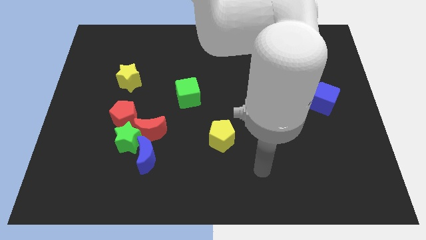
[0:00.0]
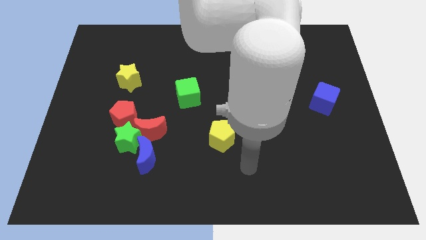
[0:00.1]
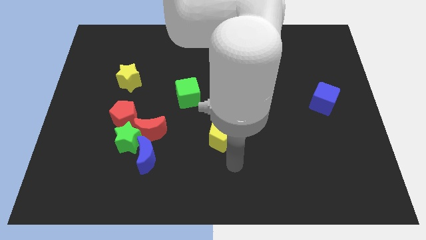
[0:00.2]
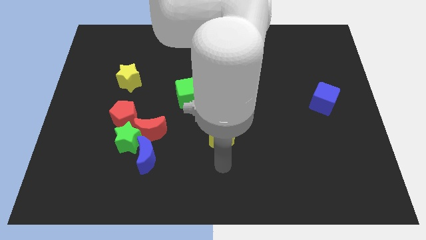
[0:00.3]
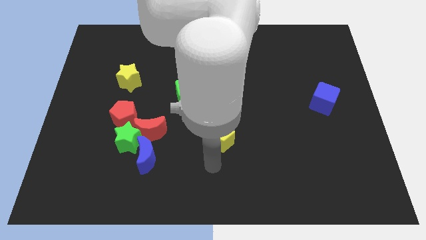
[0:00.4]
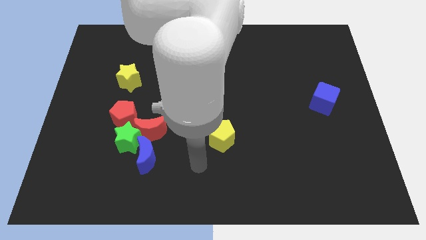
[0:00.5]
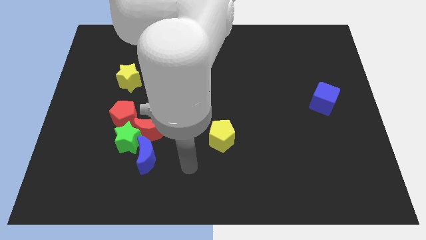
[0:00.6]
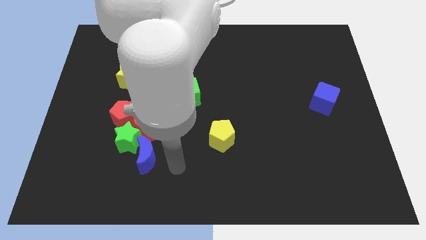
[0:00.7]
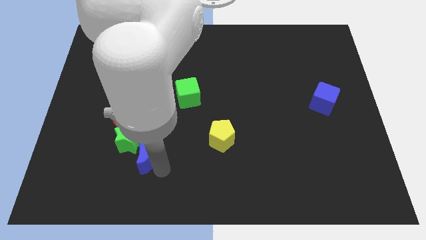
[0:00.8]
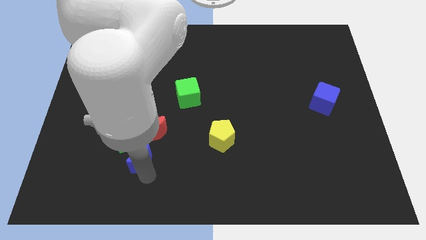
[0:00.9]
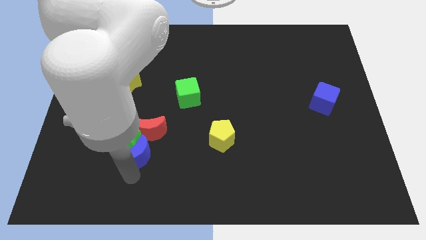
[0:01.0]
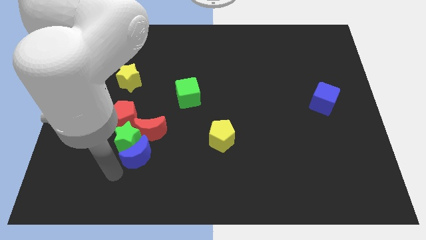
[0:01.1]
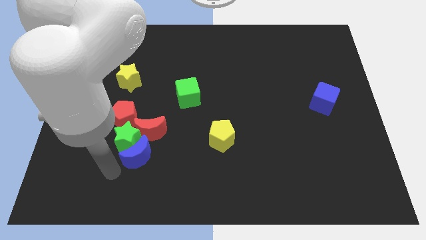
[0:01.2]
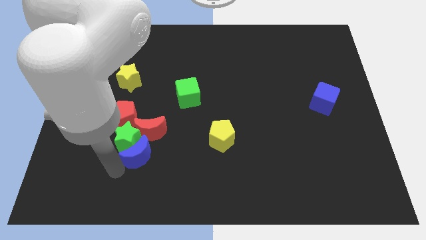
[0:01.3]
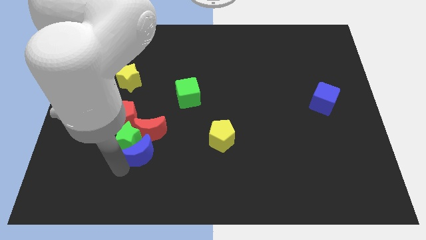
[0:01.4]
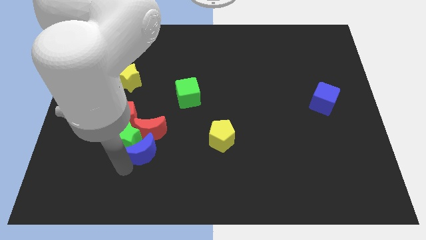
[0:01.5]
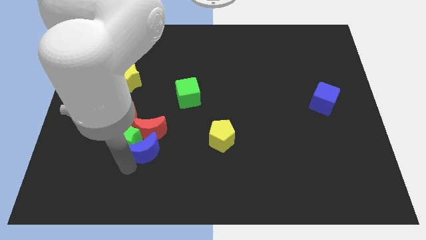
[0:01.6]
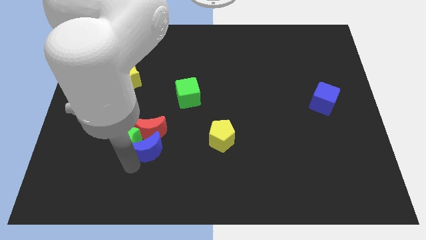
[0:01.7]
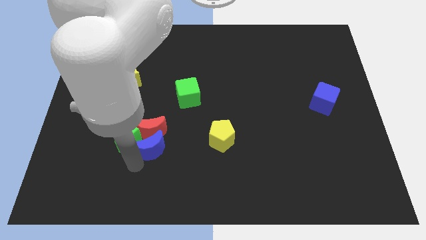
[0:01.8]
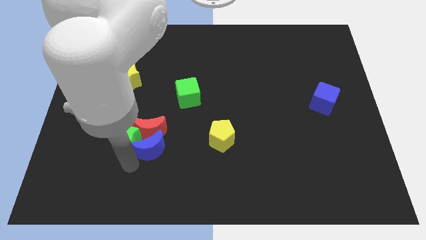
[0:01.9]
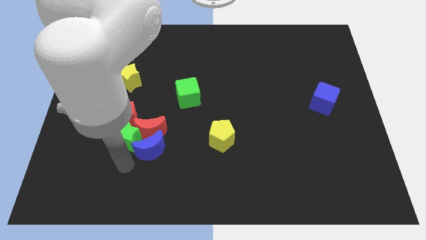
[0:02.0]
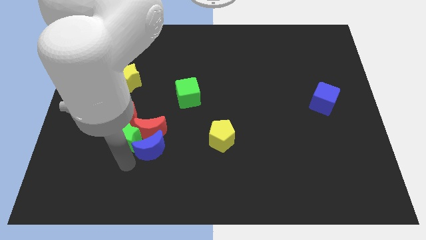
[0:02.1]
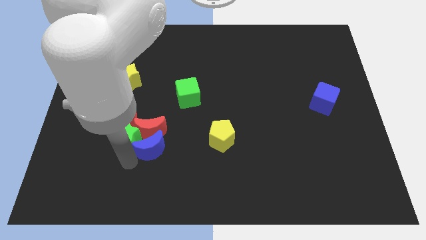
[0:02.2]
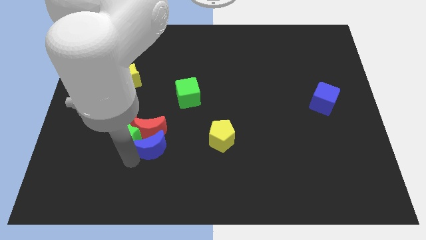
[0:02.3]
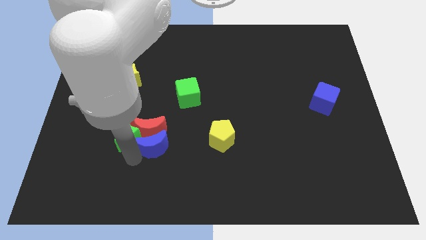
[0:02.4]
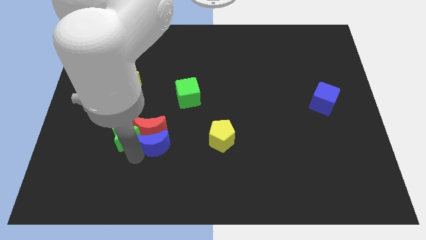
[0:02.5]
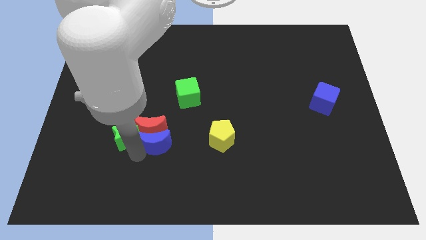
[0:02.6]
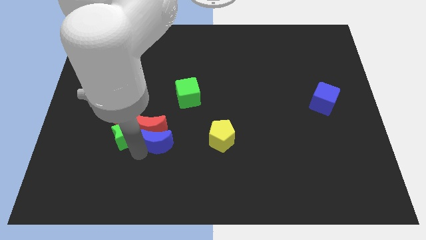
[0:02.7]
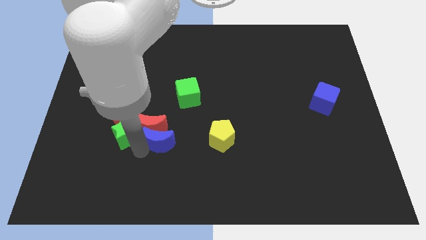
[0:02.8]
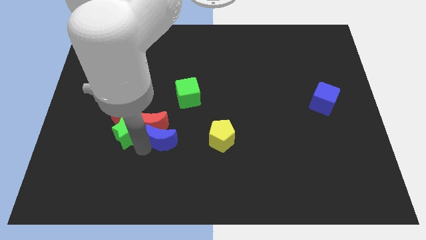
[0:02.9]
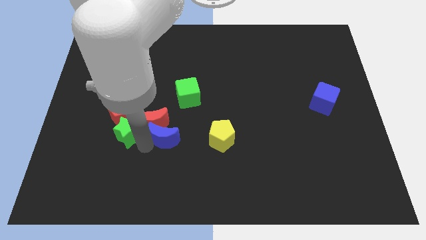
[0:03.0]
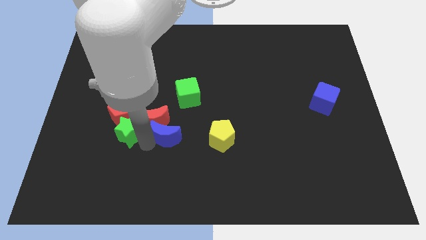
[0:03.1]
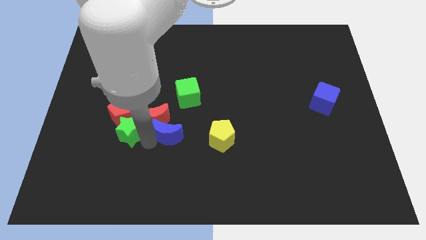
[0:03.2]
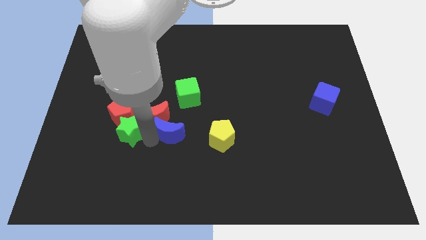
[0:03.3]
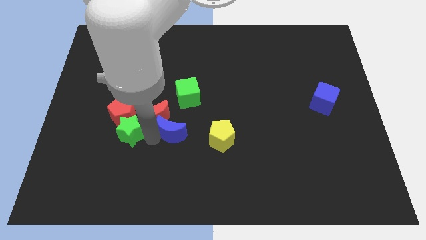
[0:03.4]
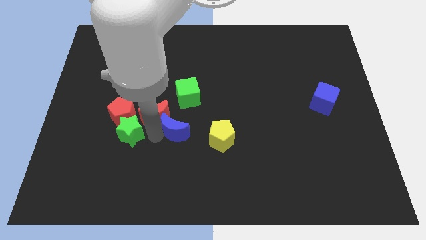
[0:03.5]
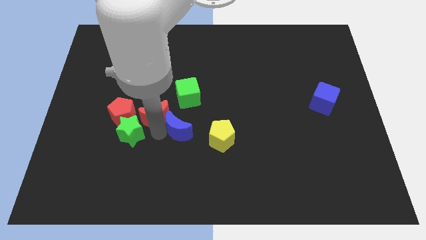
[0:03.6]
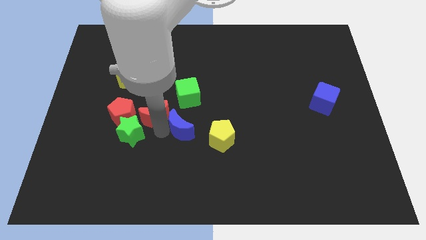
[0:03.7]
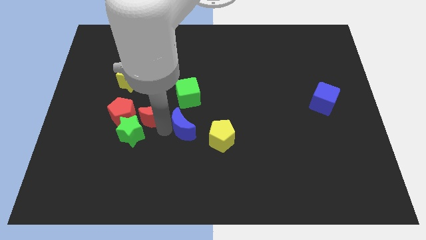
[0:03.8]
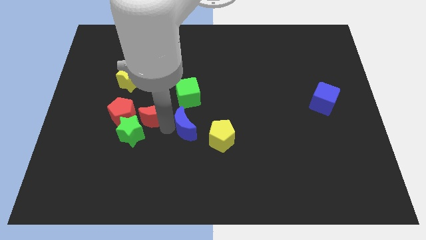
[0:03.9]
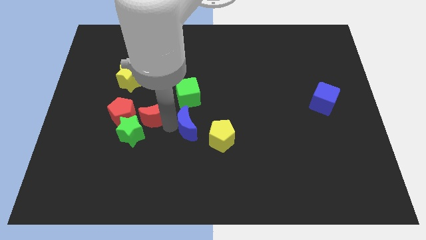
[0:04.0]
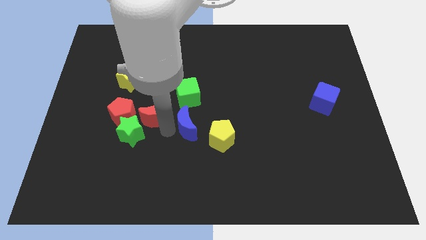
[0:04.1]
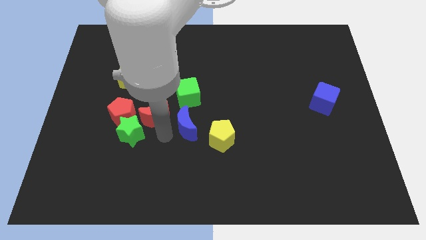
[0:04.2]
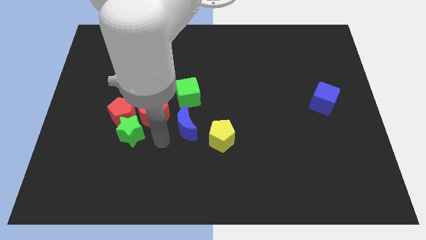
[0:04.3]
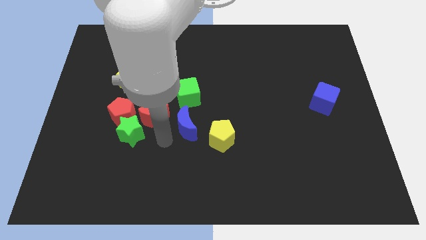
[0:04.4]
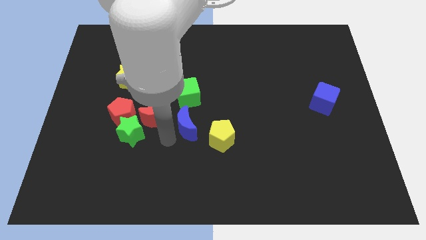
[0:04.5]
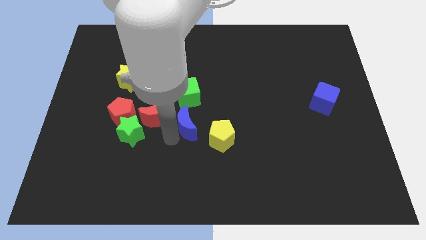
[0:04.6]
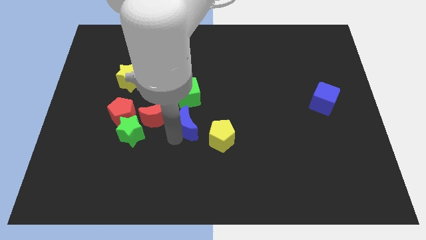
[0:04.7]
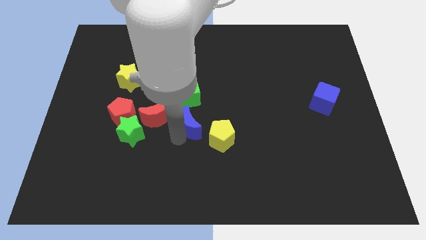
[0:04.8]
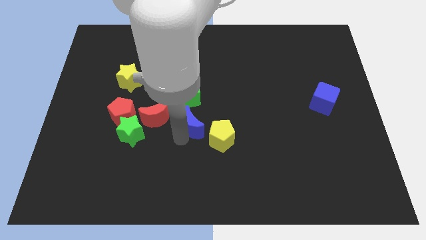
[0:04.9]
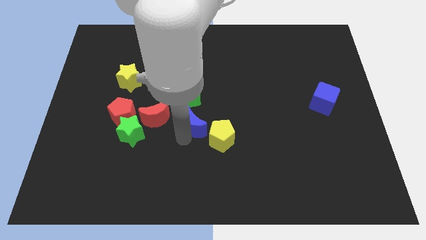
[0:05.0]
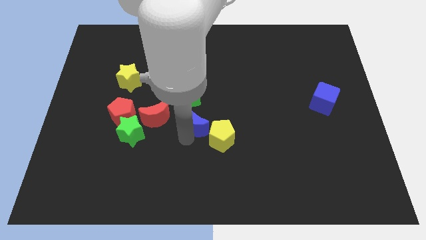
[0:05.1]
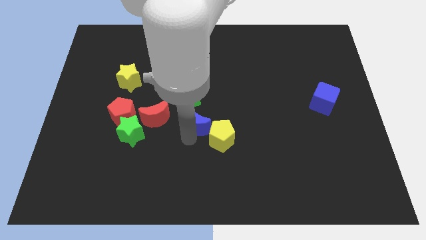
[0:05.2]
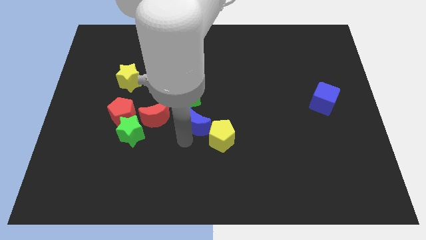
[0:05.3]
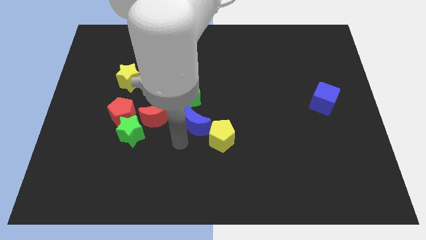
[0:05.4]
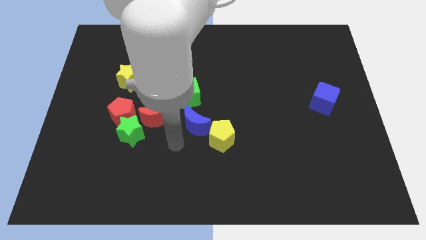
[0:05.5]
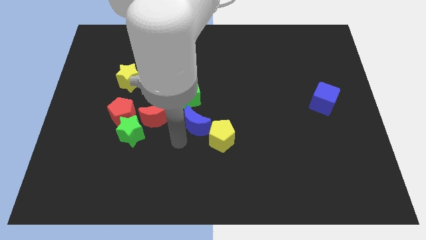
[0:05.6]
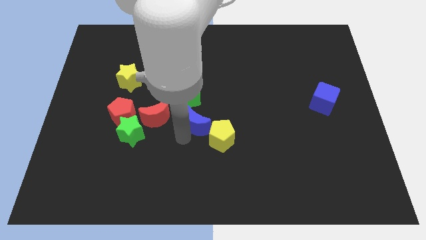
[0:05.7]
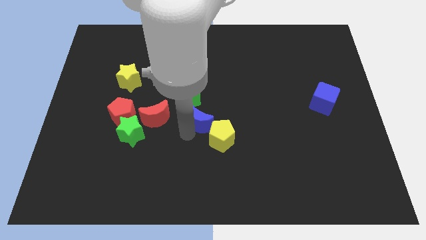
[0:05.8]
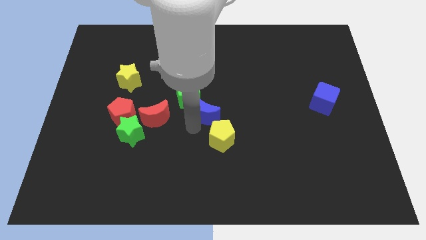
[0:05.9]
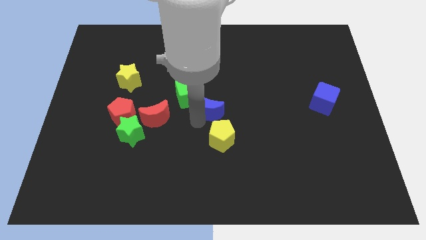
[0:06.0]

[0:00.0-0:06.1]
push the blue moon right of the green cube
